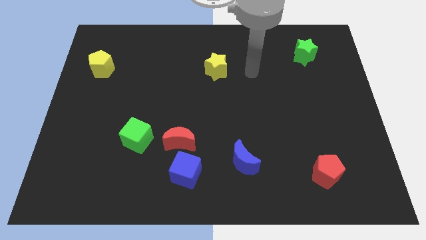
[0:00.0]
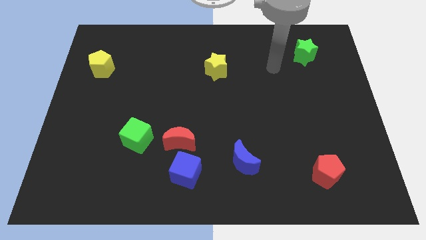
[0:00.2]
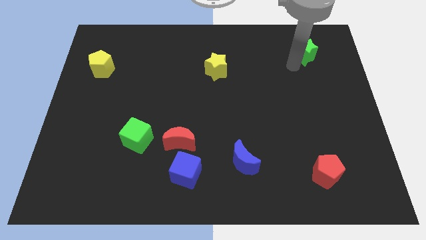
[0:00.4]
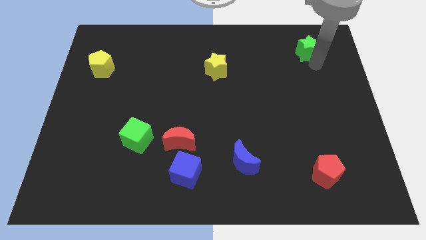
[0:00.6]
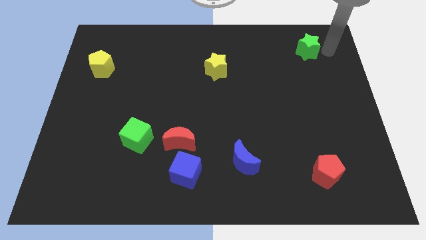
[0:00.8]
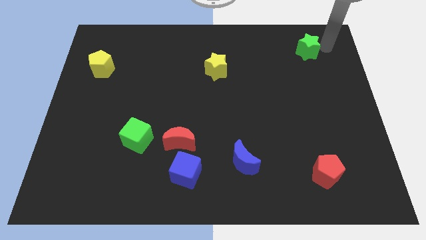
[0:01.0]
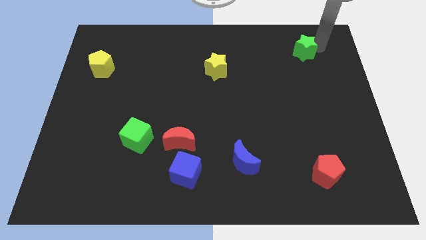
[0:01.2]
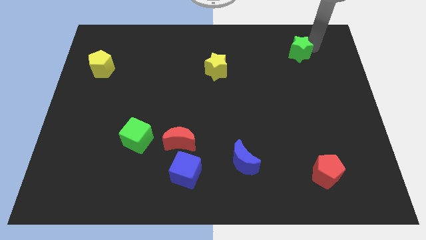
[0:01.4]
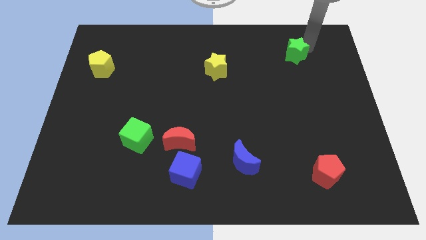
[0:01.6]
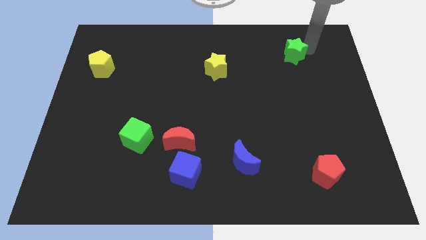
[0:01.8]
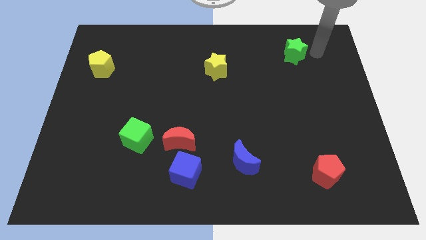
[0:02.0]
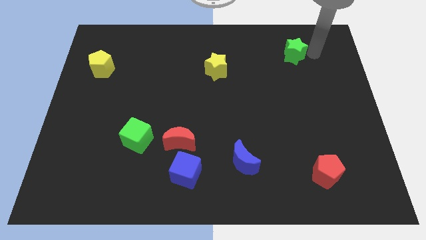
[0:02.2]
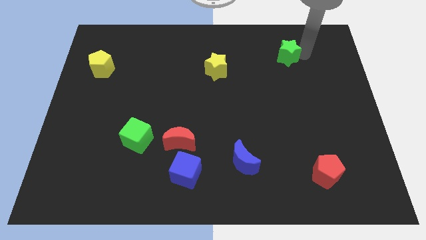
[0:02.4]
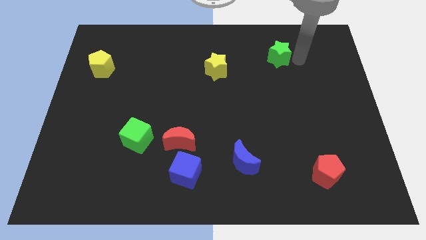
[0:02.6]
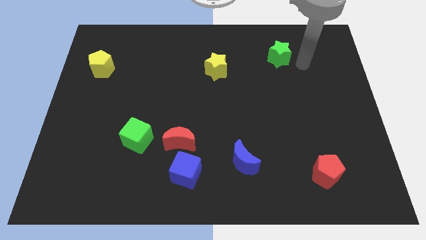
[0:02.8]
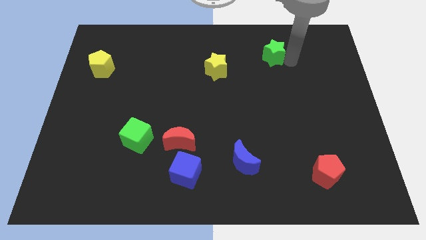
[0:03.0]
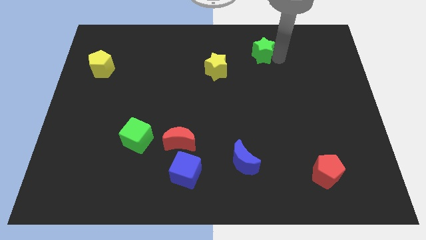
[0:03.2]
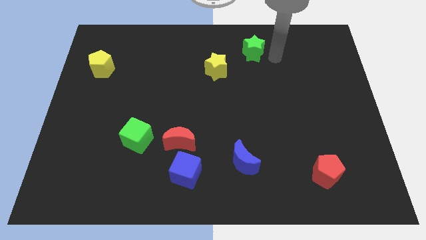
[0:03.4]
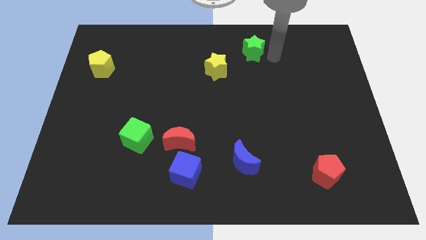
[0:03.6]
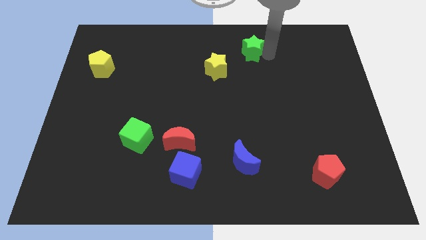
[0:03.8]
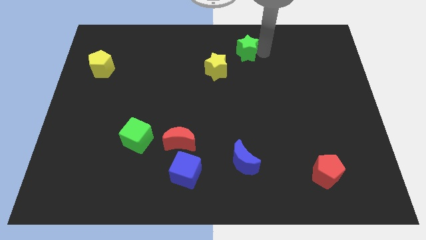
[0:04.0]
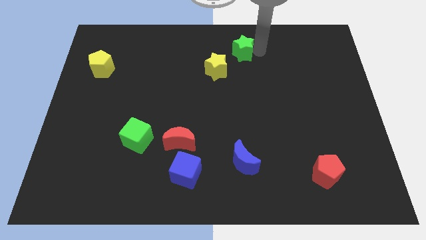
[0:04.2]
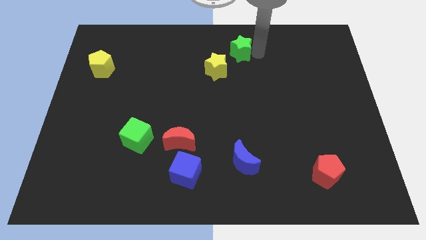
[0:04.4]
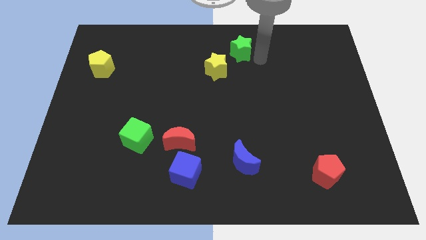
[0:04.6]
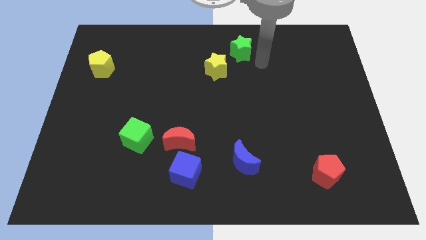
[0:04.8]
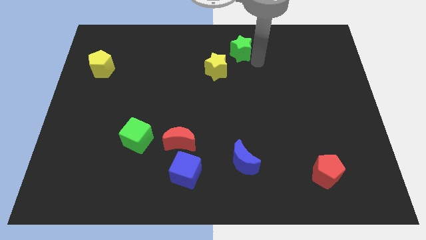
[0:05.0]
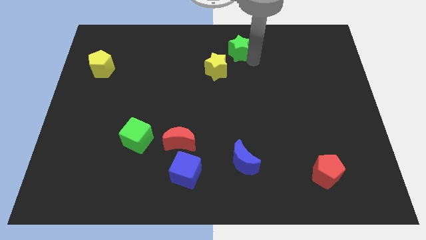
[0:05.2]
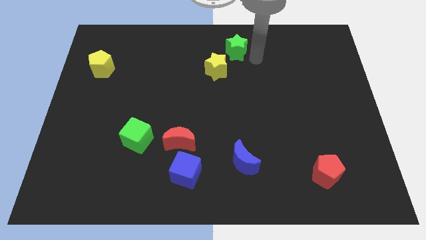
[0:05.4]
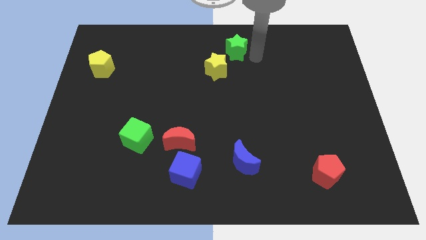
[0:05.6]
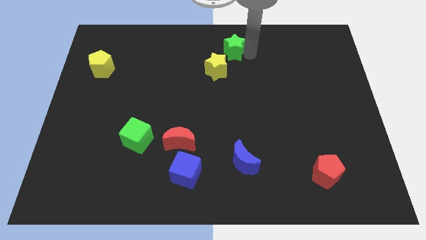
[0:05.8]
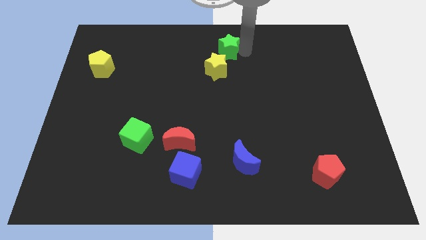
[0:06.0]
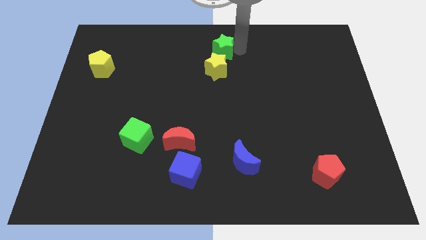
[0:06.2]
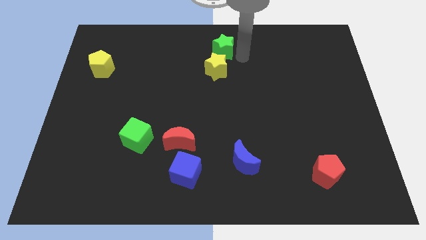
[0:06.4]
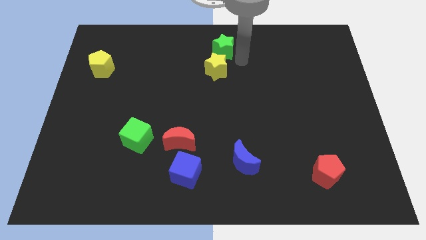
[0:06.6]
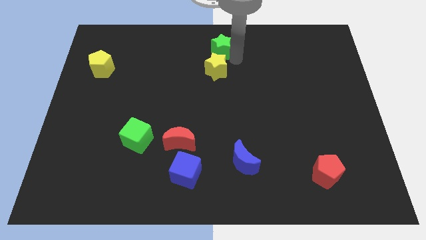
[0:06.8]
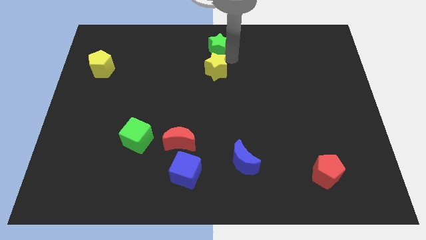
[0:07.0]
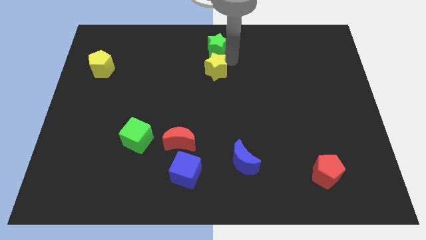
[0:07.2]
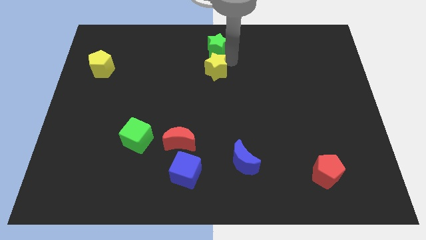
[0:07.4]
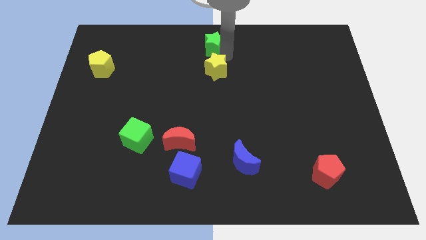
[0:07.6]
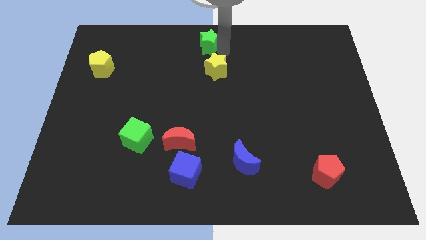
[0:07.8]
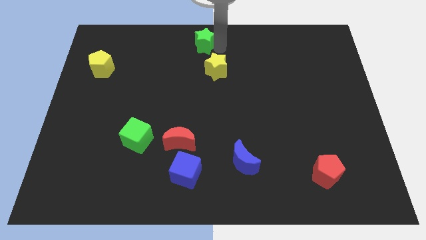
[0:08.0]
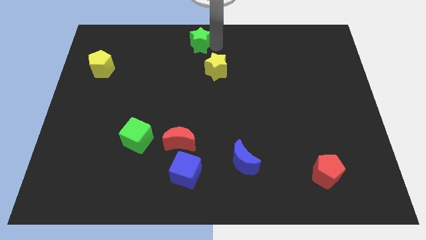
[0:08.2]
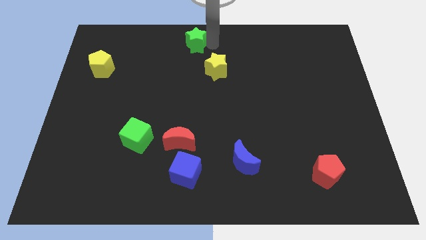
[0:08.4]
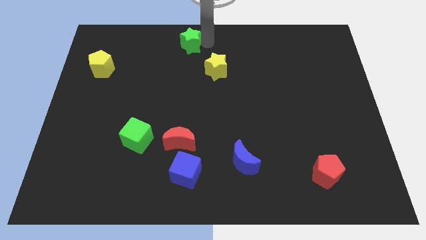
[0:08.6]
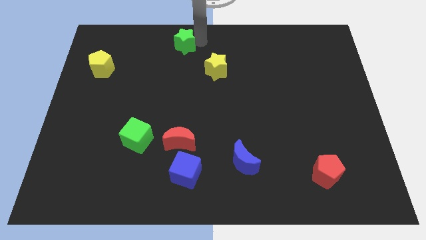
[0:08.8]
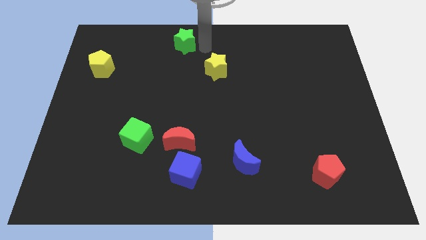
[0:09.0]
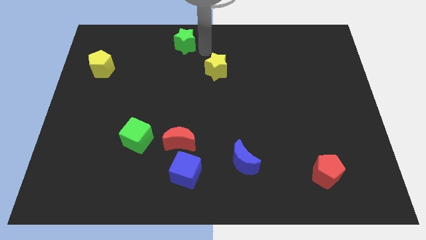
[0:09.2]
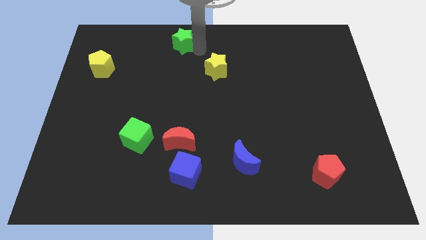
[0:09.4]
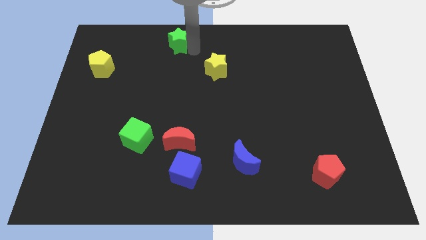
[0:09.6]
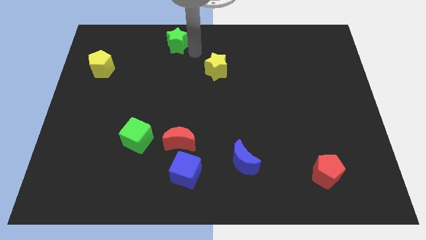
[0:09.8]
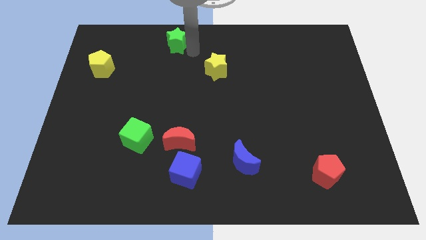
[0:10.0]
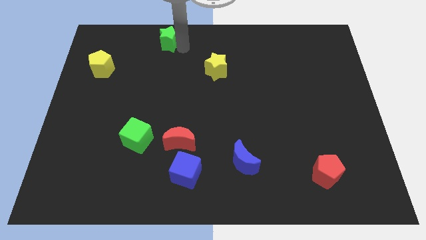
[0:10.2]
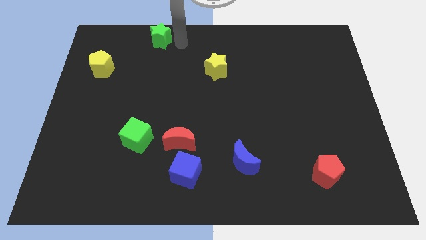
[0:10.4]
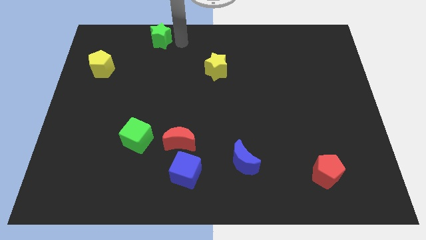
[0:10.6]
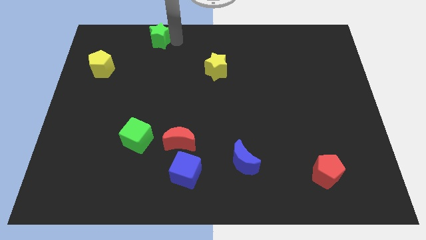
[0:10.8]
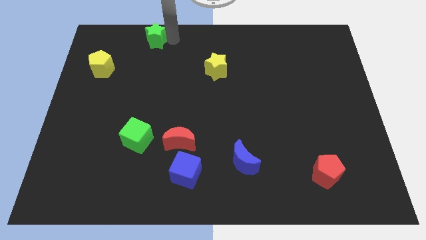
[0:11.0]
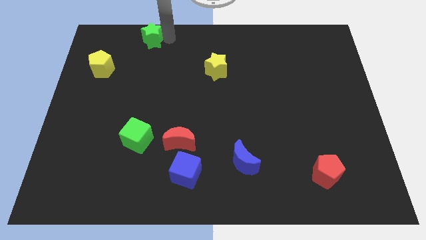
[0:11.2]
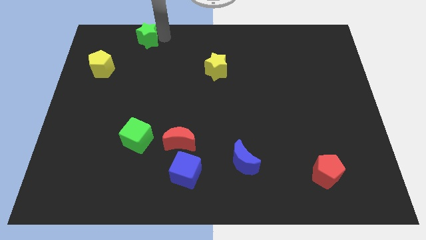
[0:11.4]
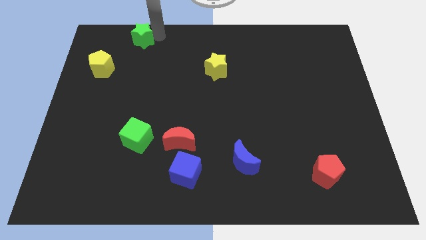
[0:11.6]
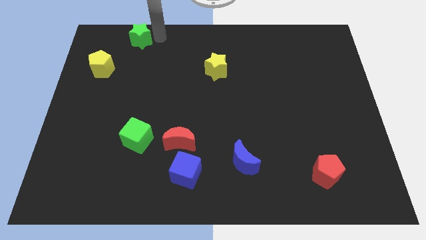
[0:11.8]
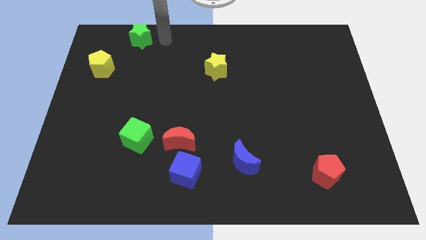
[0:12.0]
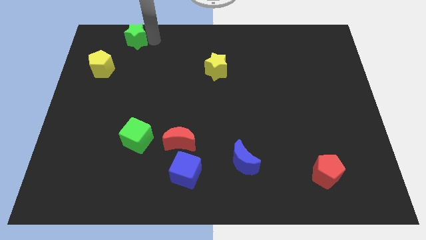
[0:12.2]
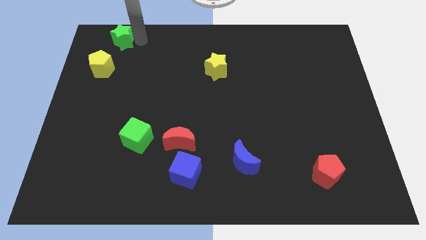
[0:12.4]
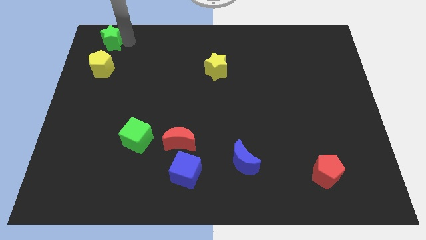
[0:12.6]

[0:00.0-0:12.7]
slide the green star to the top left of the board
